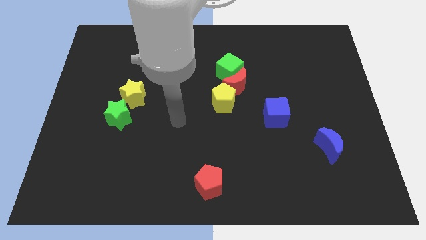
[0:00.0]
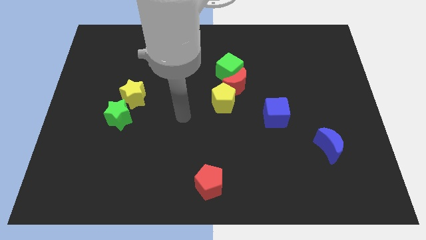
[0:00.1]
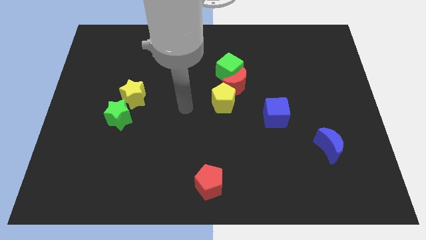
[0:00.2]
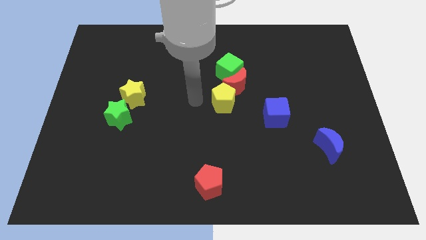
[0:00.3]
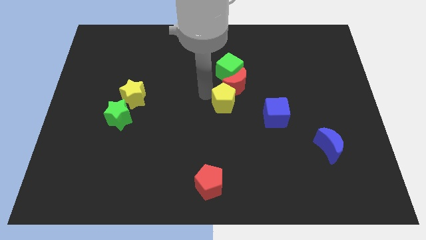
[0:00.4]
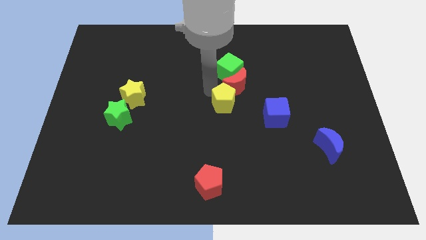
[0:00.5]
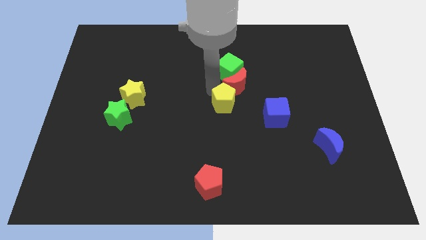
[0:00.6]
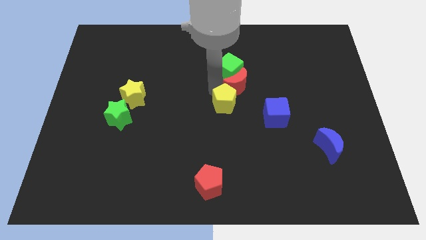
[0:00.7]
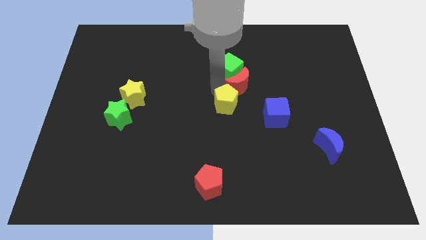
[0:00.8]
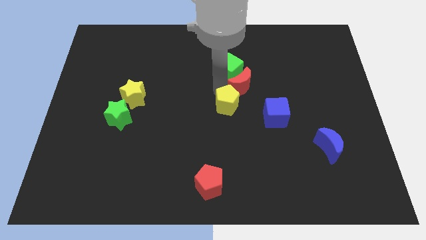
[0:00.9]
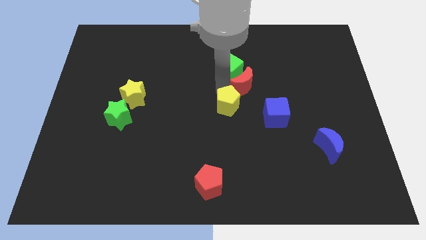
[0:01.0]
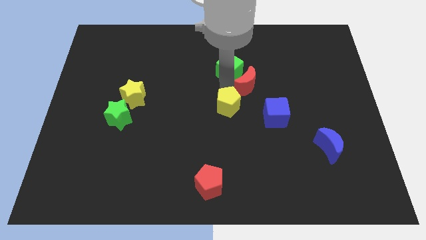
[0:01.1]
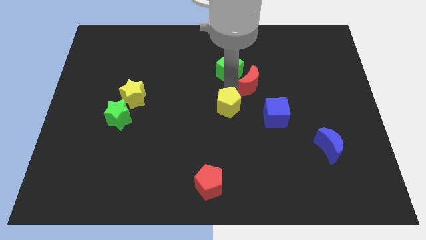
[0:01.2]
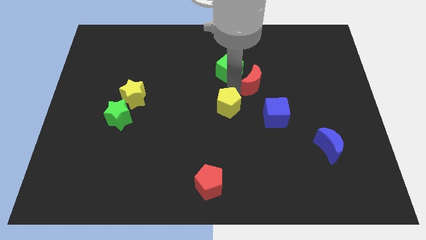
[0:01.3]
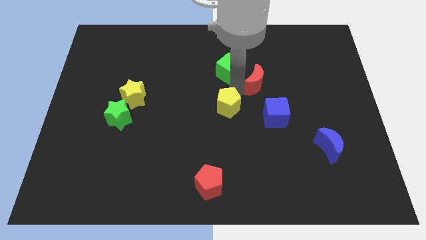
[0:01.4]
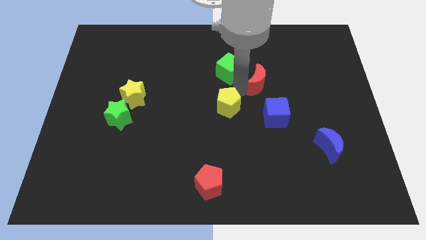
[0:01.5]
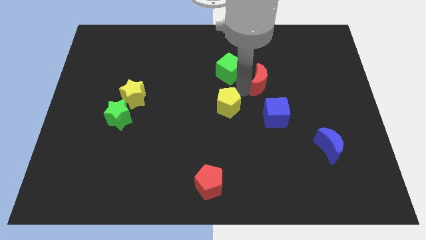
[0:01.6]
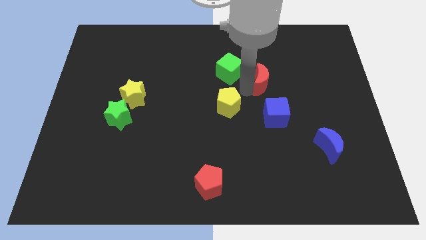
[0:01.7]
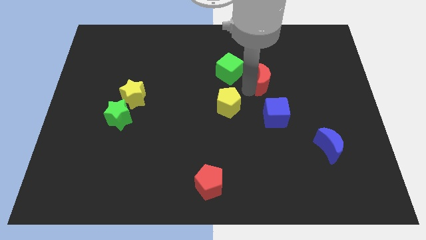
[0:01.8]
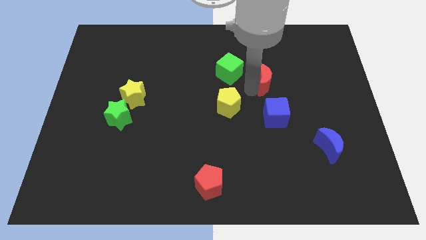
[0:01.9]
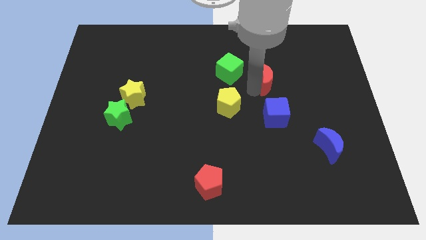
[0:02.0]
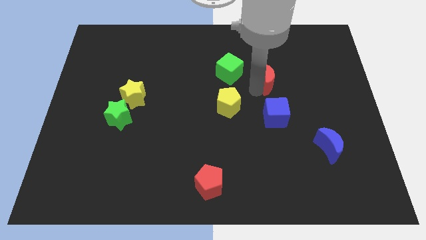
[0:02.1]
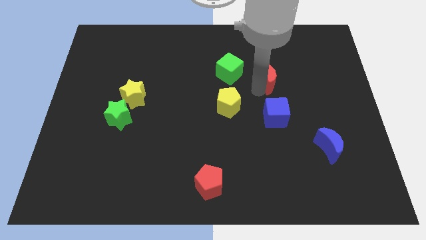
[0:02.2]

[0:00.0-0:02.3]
move the red moon away from the green cube and yellow pentagon

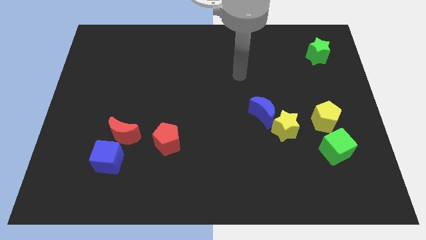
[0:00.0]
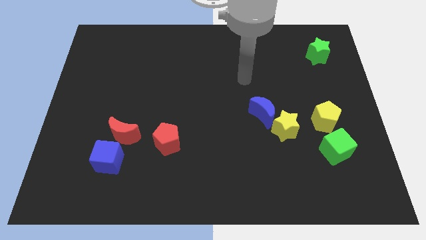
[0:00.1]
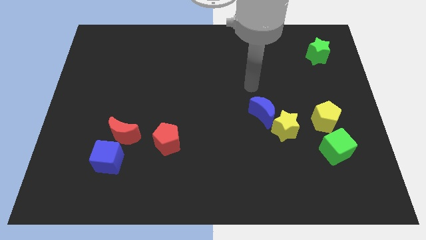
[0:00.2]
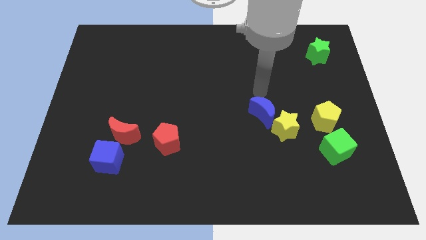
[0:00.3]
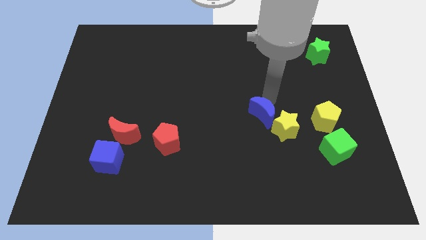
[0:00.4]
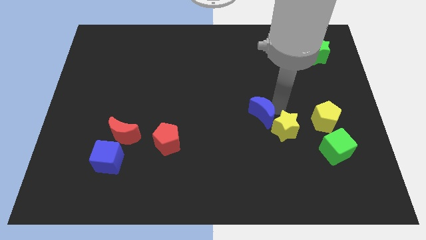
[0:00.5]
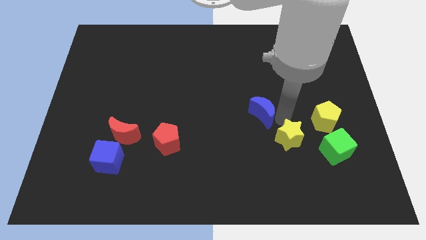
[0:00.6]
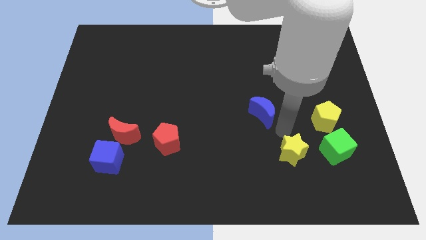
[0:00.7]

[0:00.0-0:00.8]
move the blue moon away from the yellow star

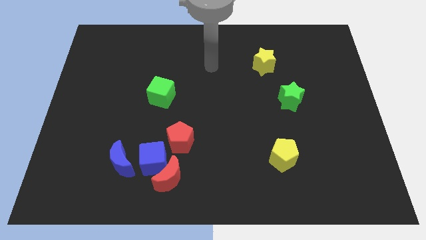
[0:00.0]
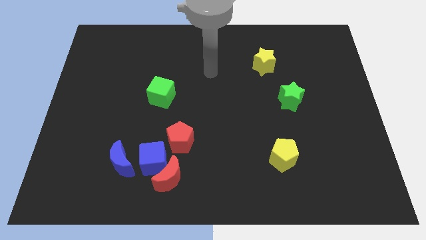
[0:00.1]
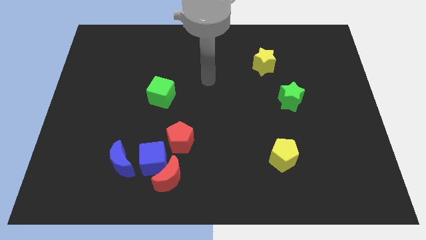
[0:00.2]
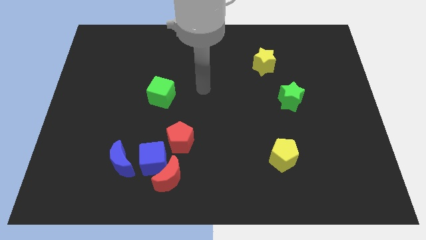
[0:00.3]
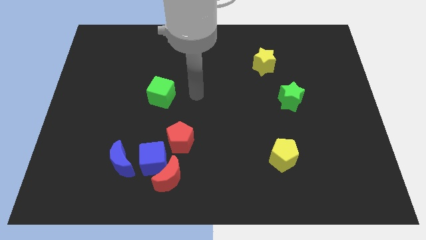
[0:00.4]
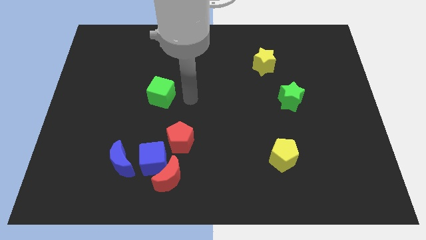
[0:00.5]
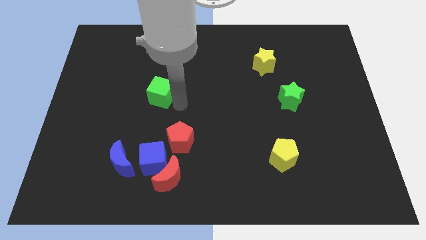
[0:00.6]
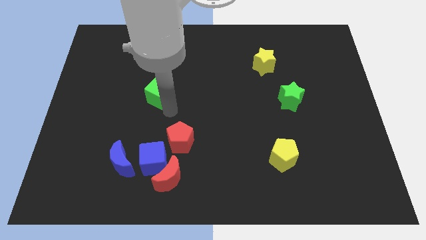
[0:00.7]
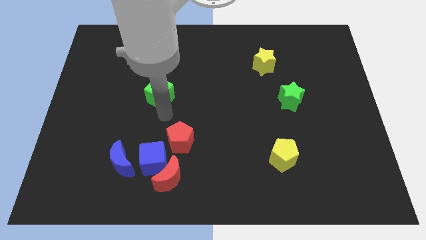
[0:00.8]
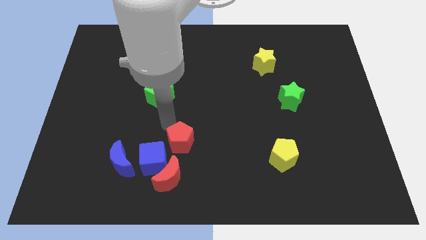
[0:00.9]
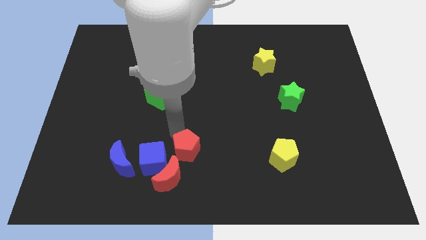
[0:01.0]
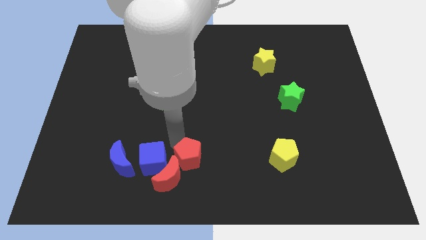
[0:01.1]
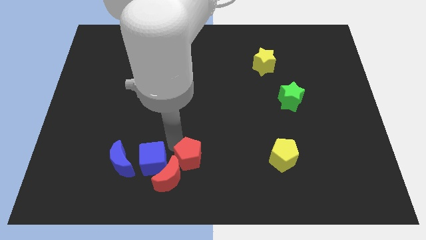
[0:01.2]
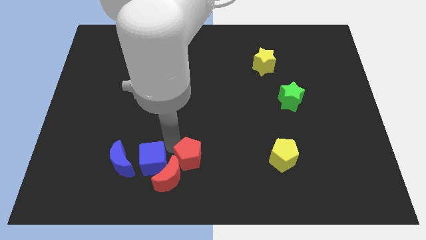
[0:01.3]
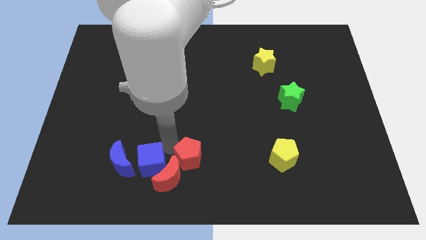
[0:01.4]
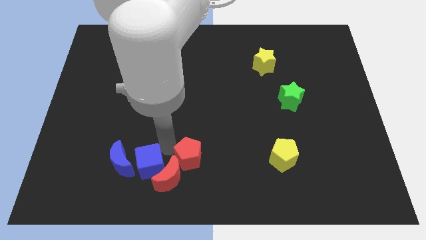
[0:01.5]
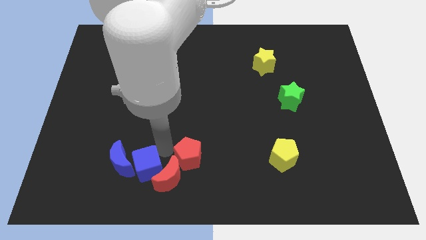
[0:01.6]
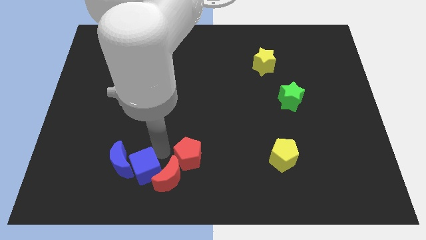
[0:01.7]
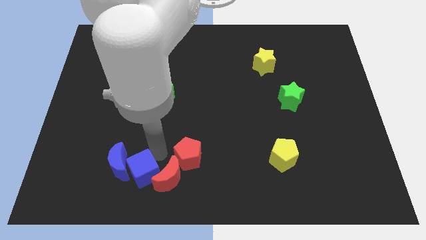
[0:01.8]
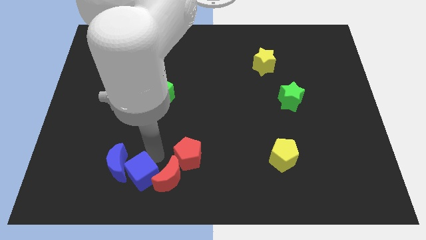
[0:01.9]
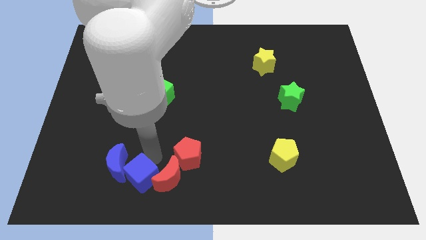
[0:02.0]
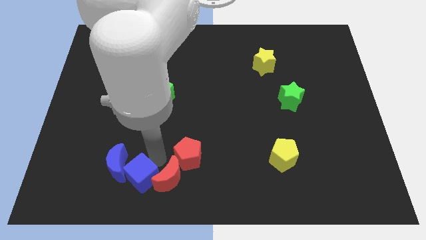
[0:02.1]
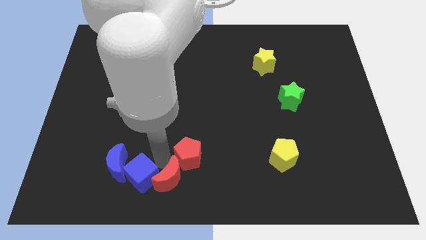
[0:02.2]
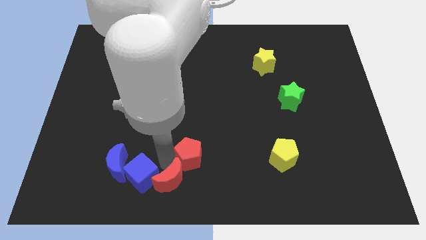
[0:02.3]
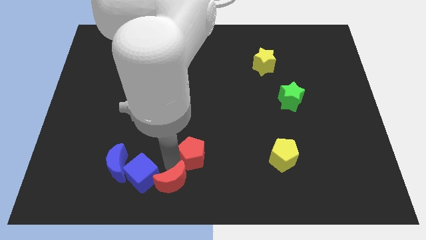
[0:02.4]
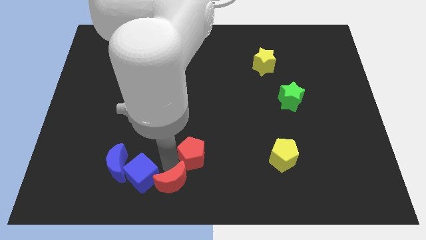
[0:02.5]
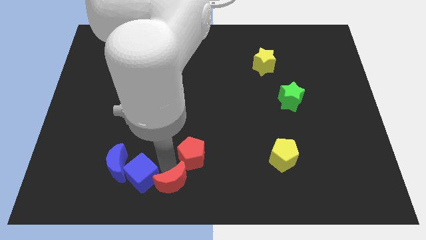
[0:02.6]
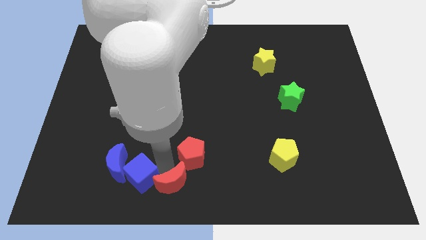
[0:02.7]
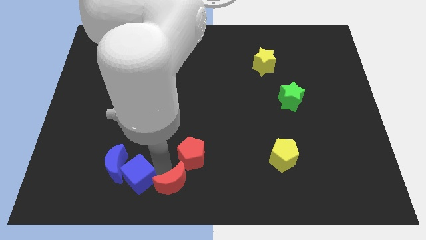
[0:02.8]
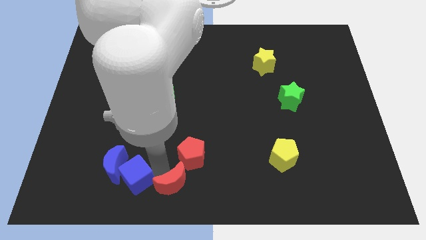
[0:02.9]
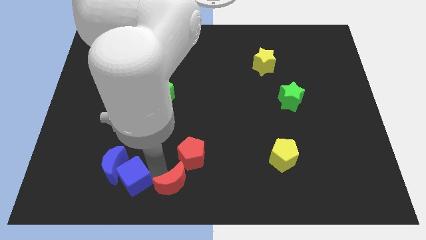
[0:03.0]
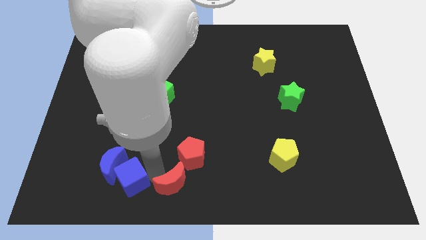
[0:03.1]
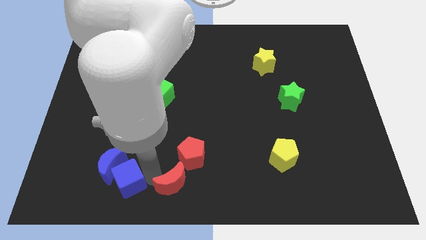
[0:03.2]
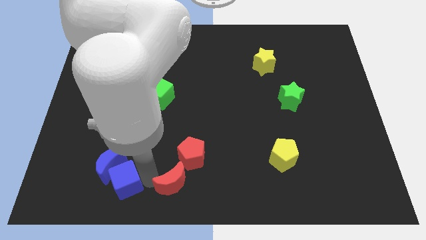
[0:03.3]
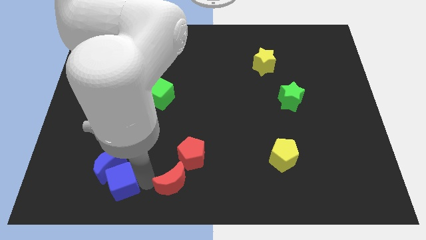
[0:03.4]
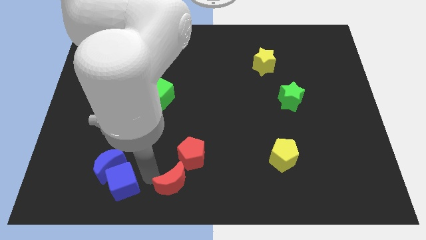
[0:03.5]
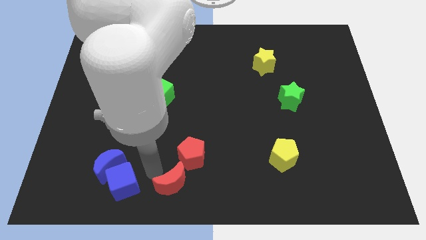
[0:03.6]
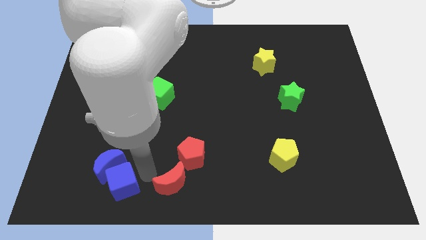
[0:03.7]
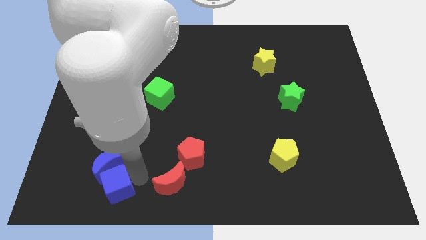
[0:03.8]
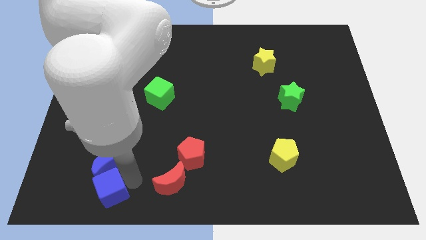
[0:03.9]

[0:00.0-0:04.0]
separate the blue cube from the red moon, blue moon, and red pentagon

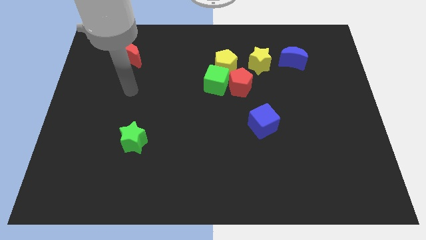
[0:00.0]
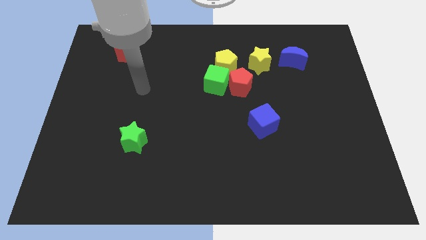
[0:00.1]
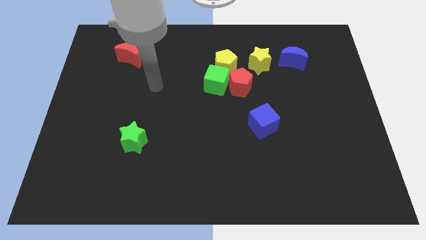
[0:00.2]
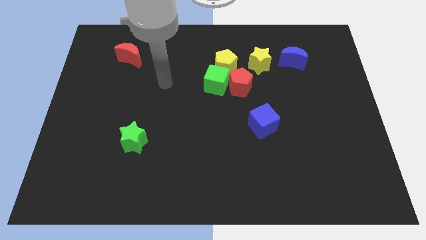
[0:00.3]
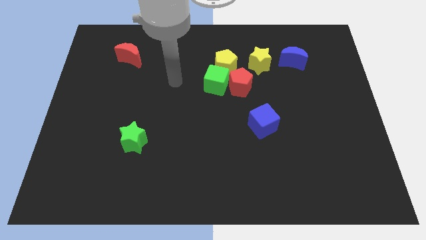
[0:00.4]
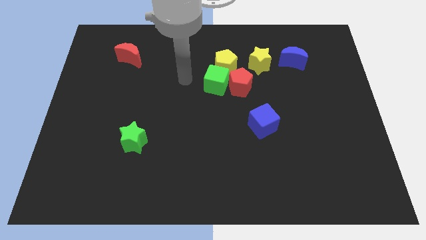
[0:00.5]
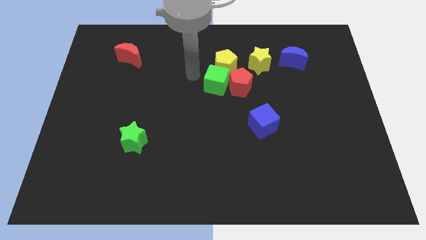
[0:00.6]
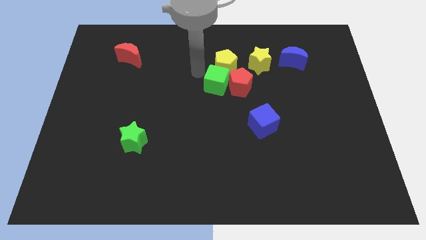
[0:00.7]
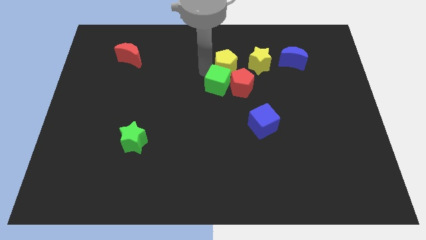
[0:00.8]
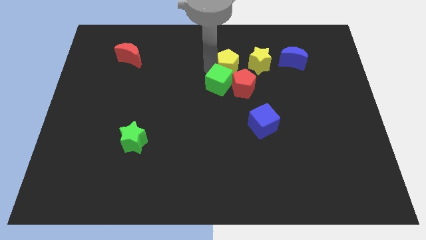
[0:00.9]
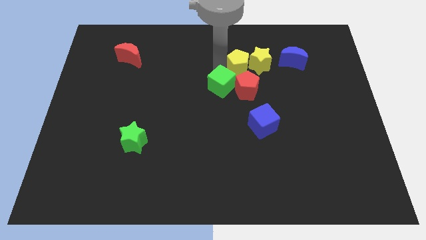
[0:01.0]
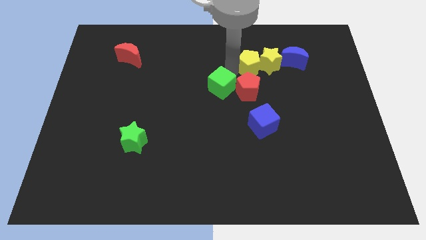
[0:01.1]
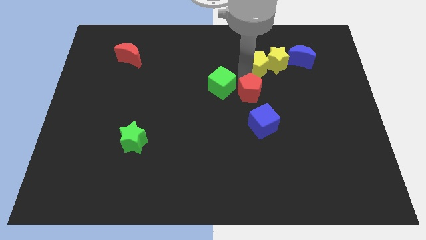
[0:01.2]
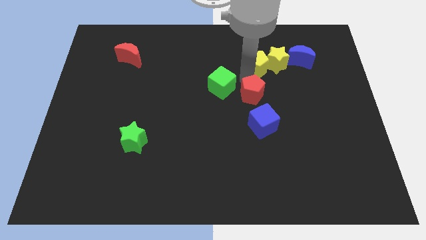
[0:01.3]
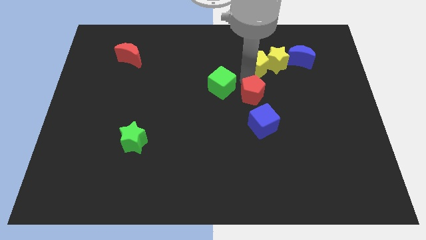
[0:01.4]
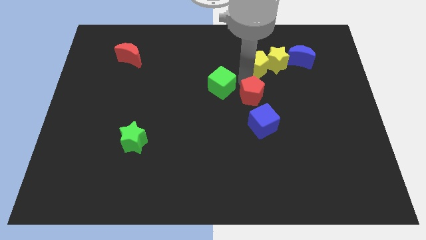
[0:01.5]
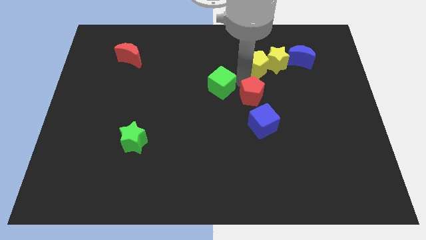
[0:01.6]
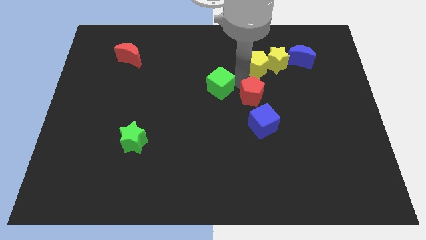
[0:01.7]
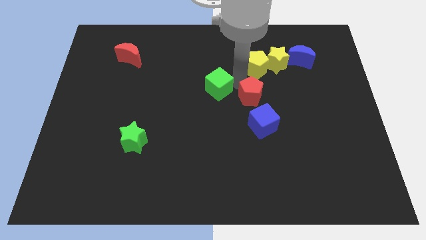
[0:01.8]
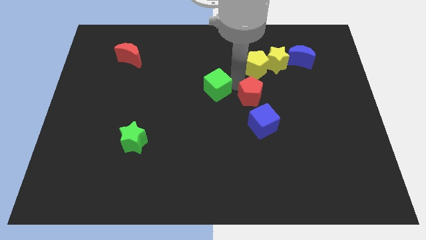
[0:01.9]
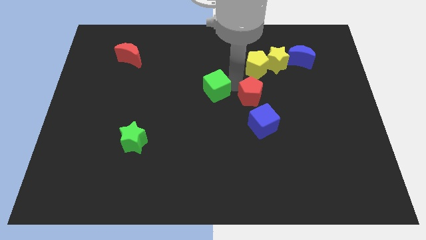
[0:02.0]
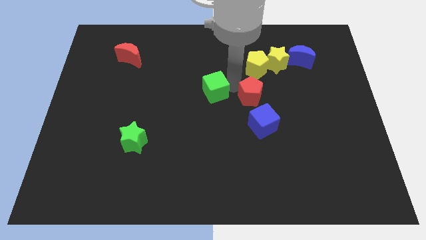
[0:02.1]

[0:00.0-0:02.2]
move the green cube away from the red pentagon and yellow pentagon

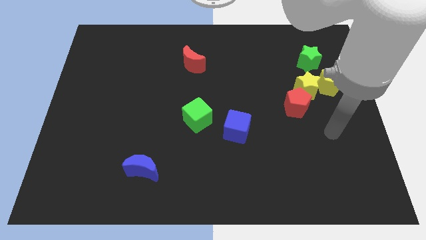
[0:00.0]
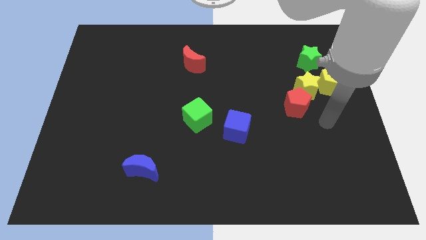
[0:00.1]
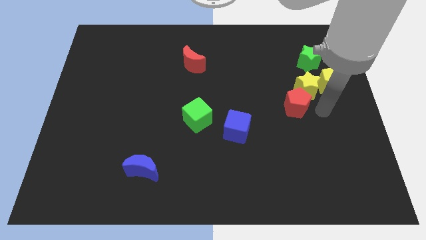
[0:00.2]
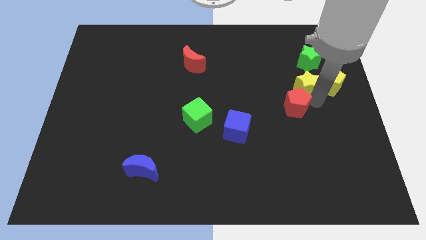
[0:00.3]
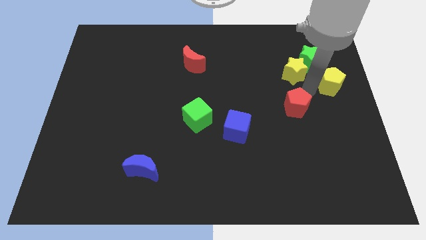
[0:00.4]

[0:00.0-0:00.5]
separate the red pentagon from the yellow star
